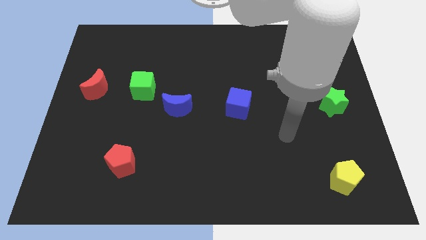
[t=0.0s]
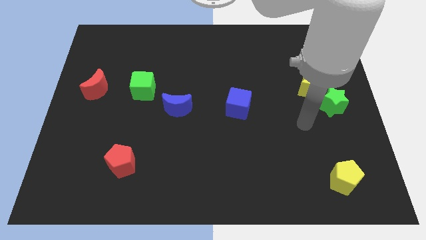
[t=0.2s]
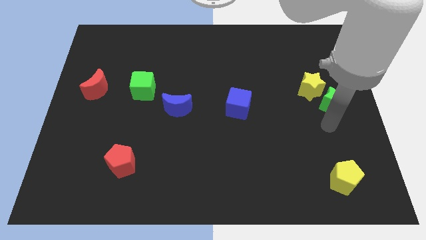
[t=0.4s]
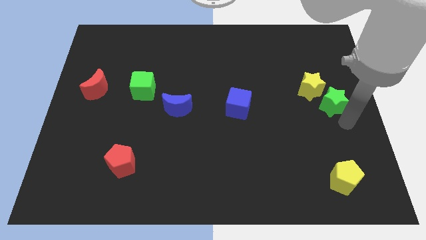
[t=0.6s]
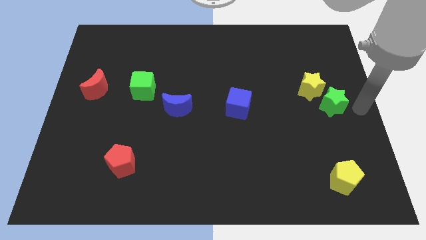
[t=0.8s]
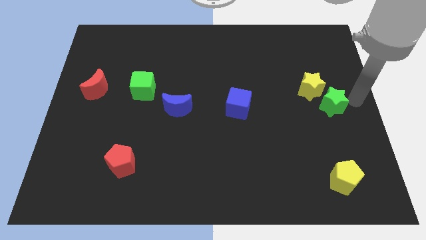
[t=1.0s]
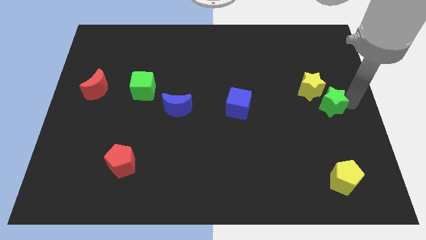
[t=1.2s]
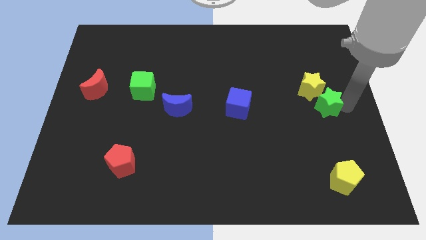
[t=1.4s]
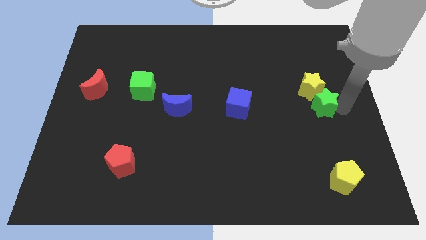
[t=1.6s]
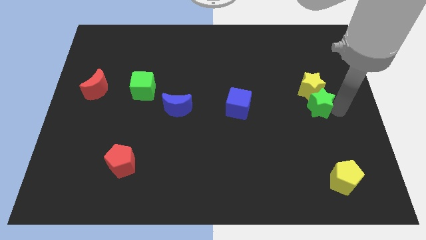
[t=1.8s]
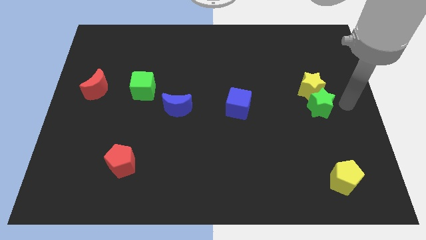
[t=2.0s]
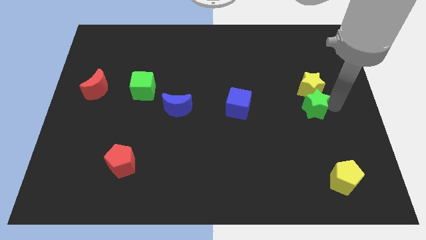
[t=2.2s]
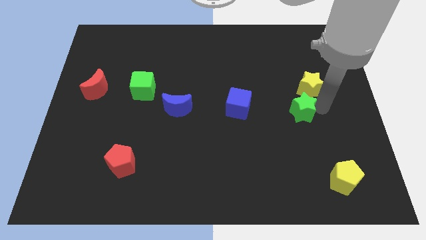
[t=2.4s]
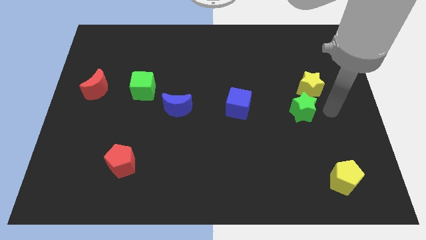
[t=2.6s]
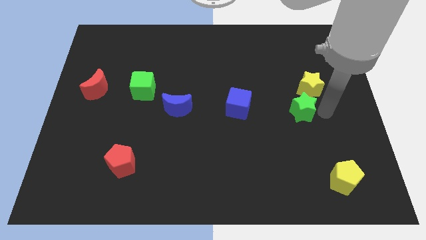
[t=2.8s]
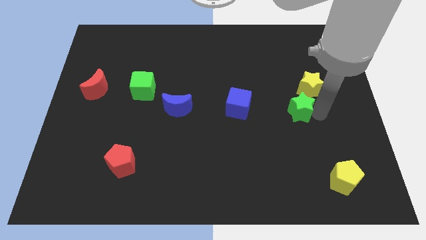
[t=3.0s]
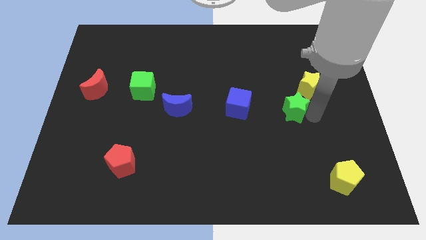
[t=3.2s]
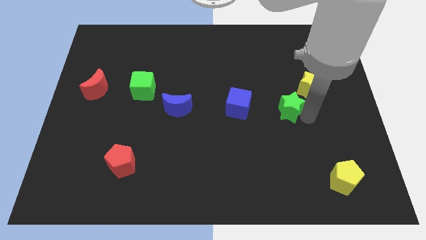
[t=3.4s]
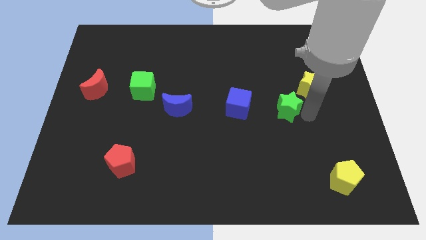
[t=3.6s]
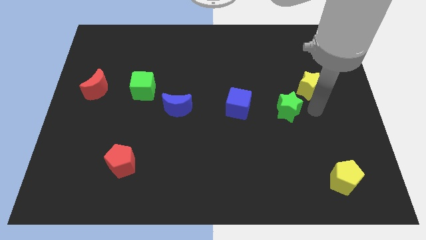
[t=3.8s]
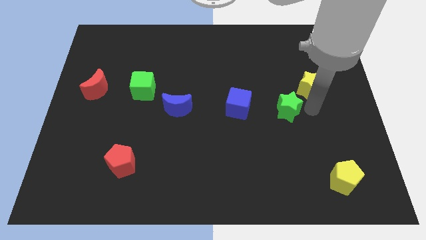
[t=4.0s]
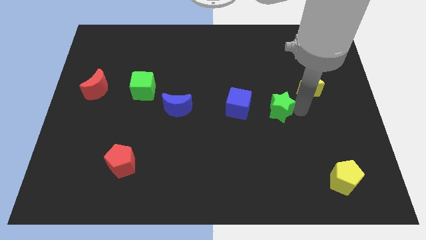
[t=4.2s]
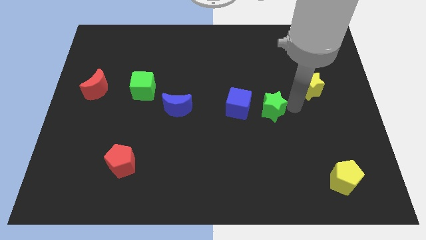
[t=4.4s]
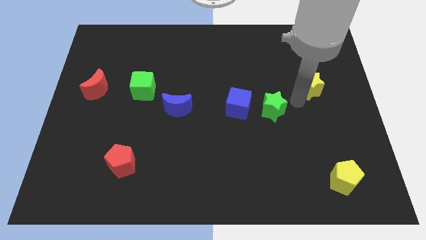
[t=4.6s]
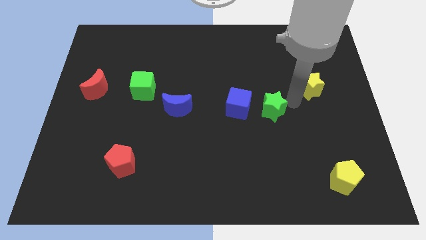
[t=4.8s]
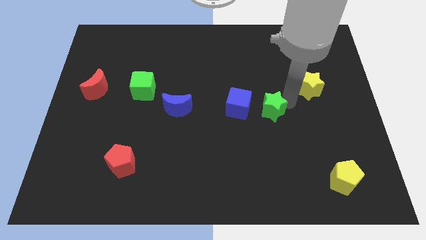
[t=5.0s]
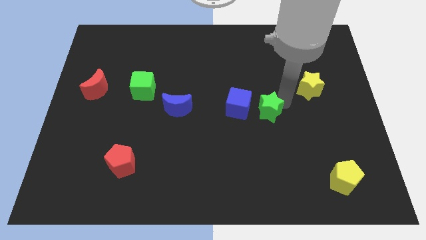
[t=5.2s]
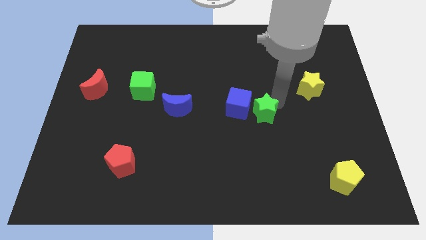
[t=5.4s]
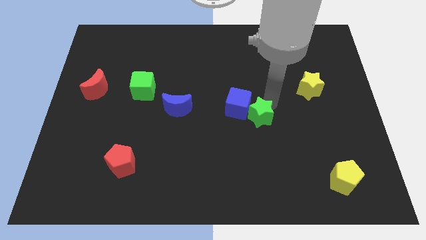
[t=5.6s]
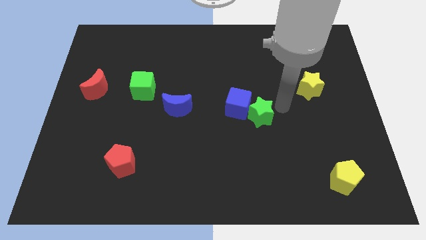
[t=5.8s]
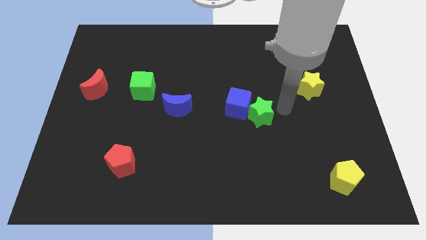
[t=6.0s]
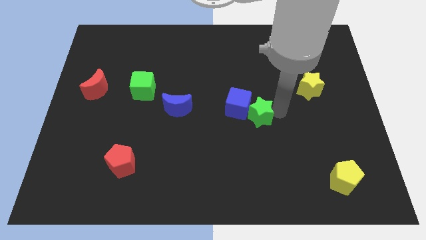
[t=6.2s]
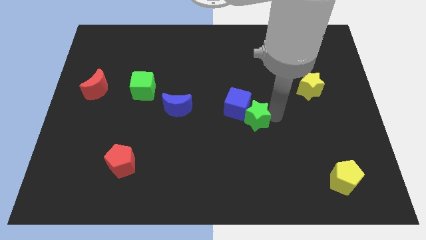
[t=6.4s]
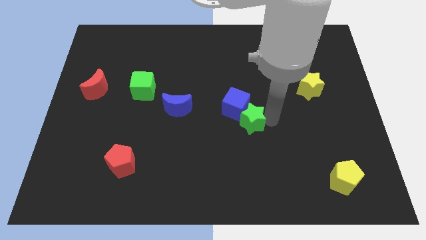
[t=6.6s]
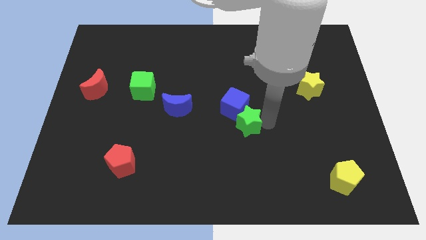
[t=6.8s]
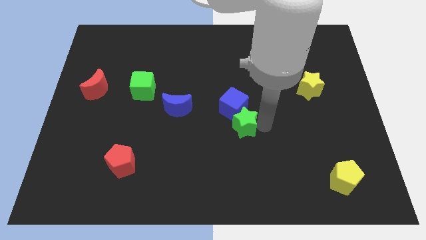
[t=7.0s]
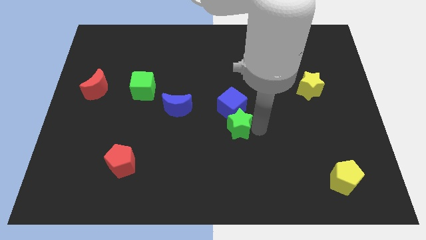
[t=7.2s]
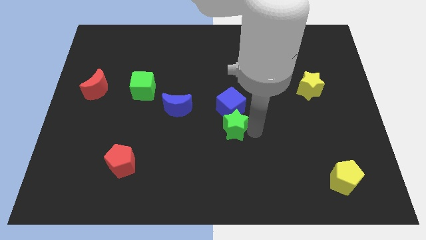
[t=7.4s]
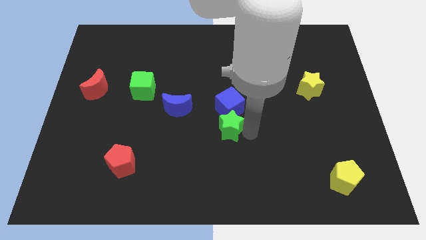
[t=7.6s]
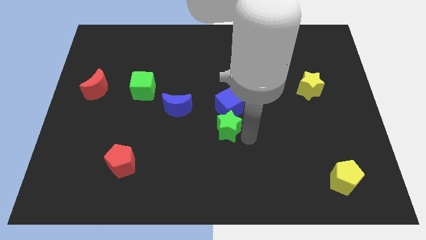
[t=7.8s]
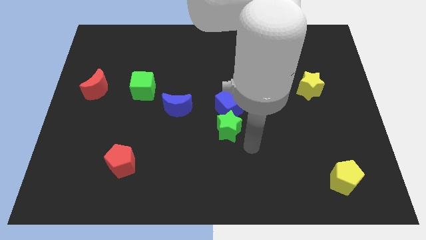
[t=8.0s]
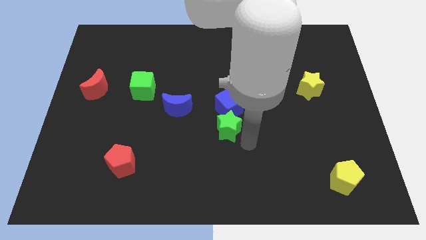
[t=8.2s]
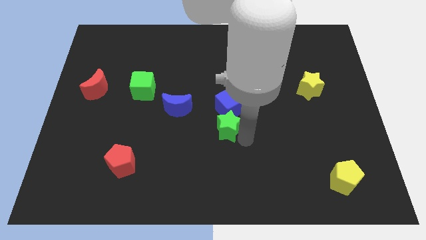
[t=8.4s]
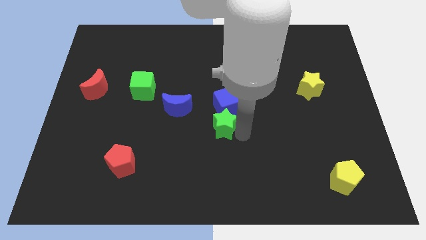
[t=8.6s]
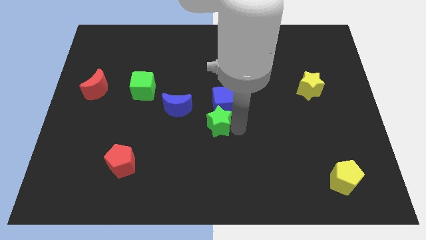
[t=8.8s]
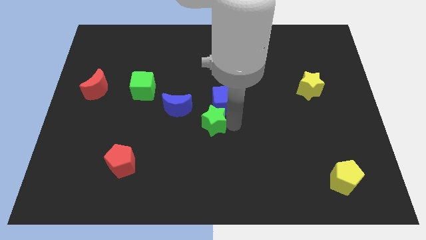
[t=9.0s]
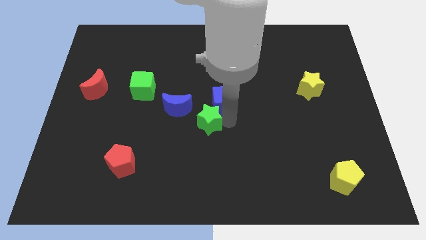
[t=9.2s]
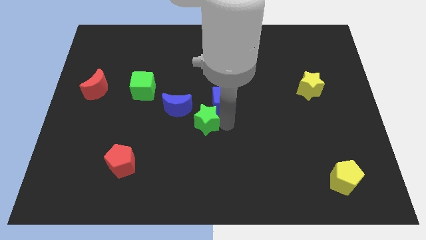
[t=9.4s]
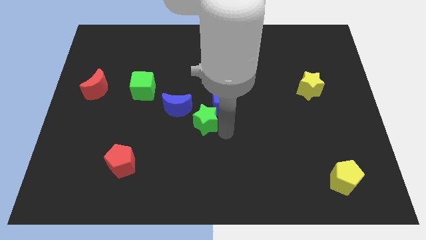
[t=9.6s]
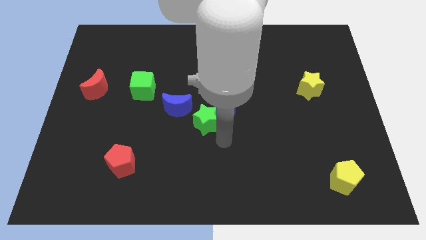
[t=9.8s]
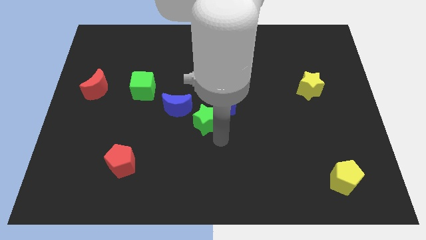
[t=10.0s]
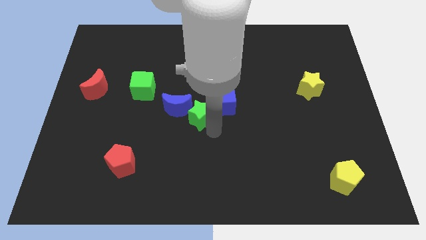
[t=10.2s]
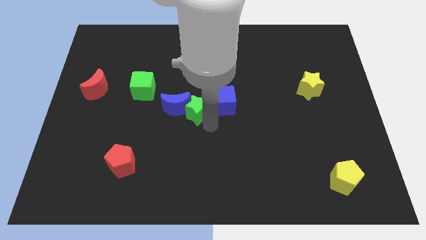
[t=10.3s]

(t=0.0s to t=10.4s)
push the green star towards the blue moon

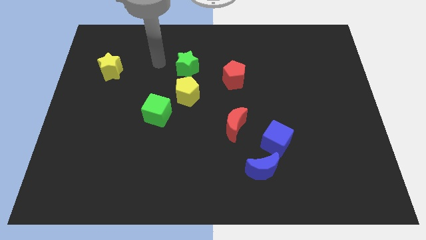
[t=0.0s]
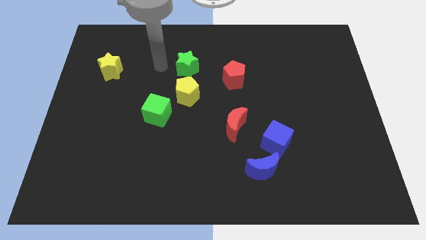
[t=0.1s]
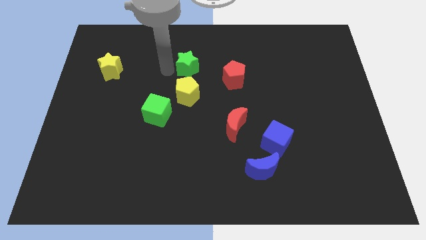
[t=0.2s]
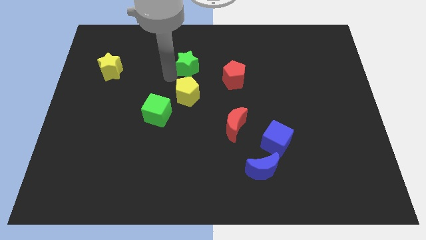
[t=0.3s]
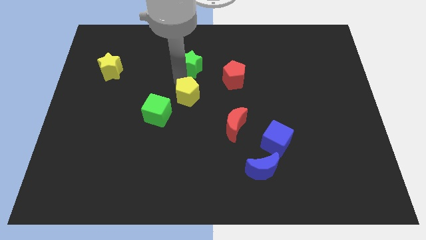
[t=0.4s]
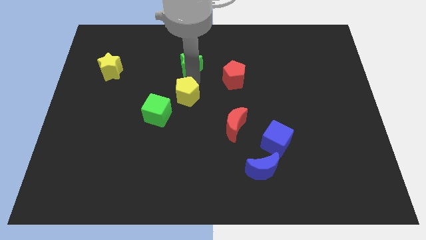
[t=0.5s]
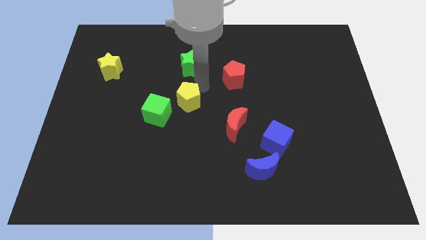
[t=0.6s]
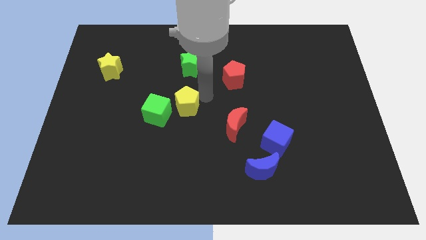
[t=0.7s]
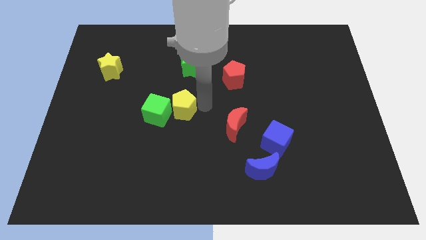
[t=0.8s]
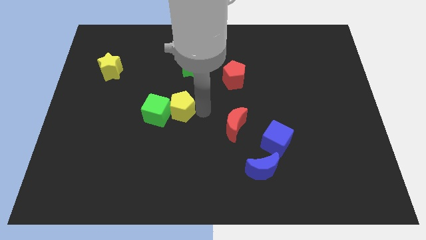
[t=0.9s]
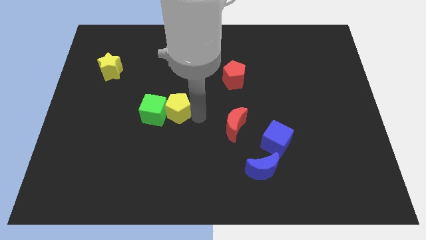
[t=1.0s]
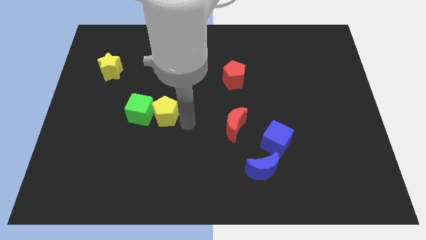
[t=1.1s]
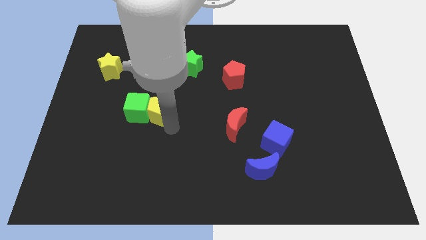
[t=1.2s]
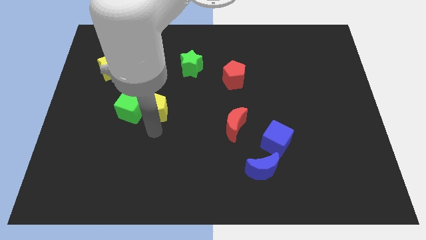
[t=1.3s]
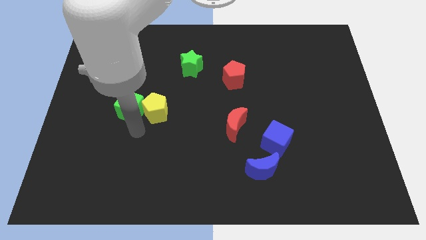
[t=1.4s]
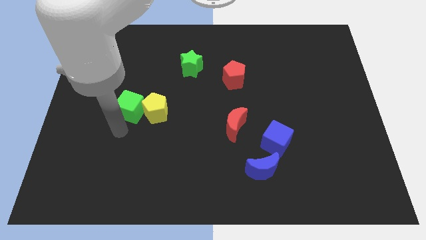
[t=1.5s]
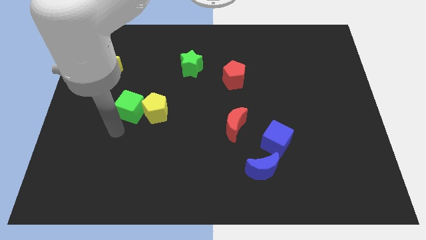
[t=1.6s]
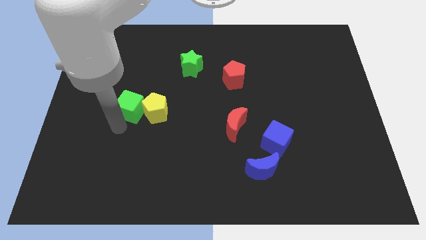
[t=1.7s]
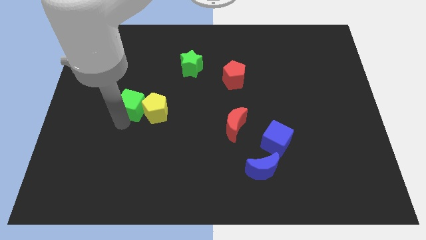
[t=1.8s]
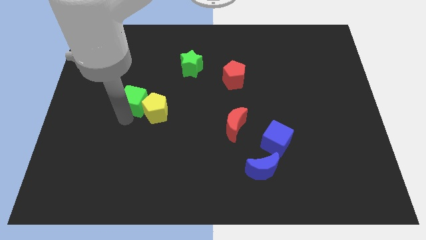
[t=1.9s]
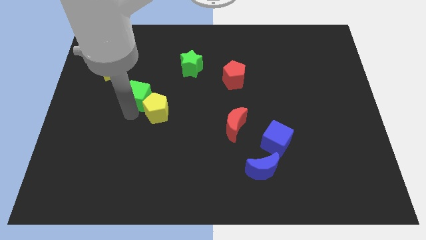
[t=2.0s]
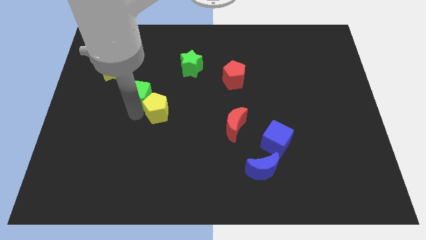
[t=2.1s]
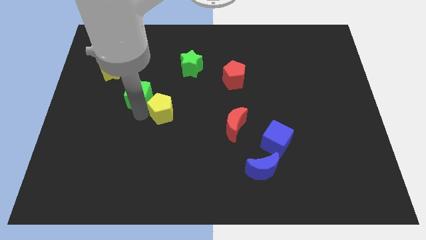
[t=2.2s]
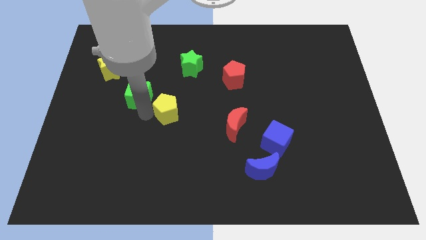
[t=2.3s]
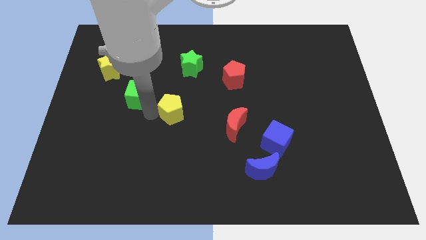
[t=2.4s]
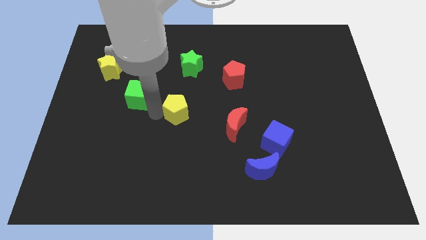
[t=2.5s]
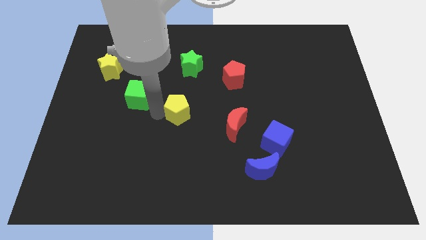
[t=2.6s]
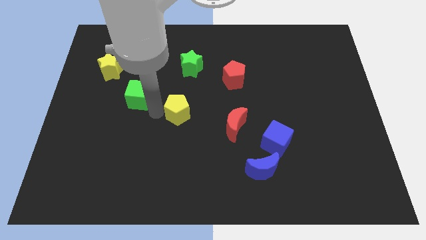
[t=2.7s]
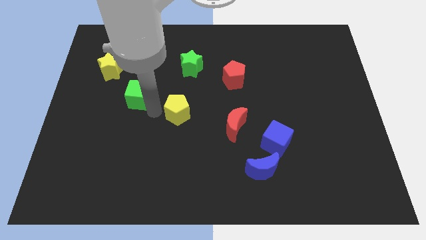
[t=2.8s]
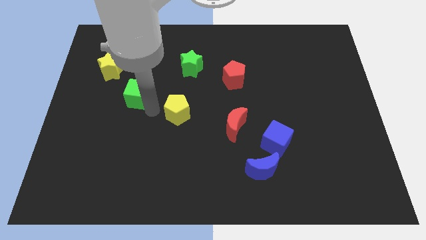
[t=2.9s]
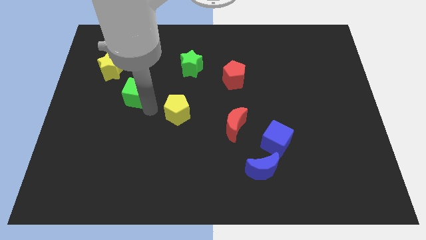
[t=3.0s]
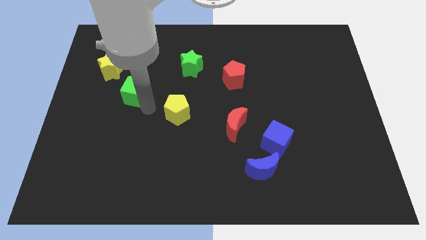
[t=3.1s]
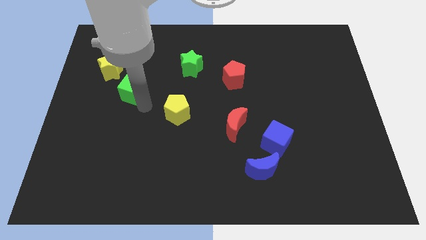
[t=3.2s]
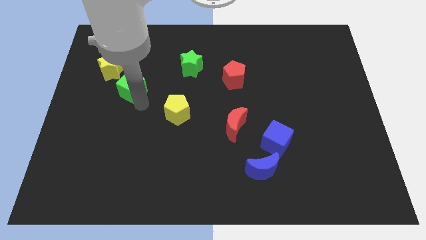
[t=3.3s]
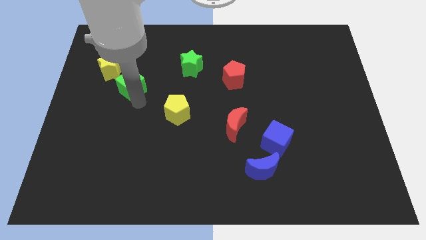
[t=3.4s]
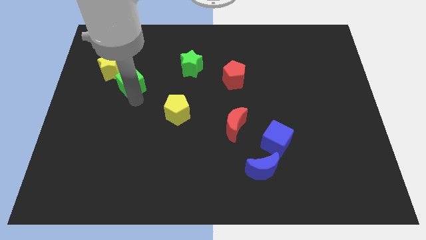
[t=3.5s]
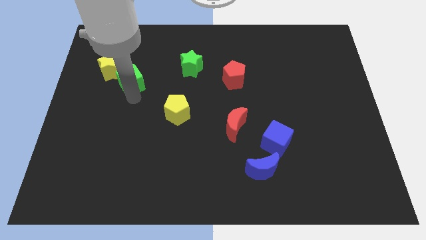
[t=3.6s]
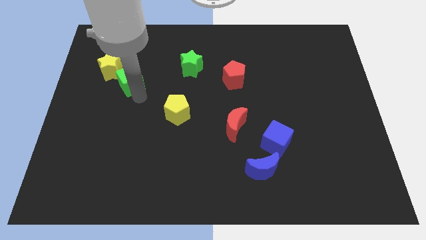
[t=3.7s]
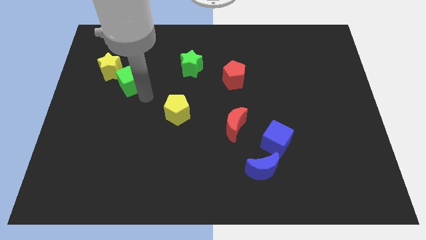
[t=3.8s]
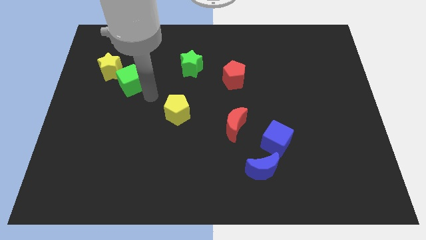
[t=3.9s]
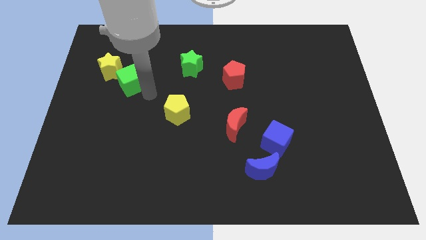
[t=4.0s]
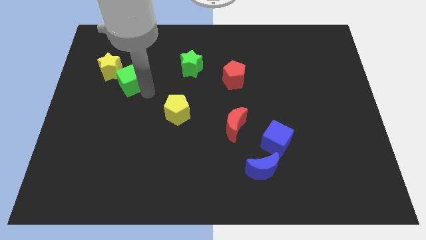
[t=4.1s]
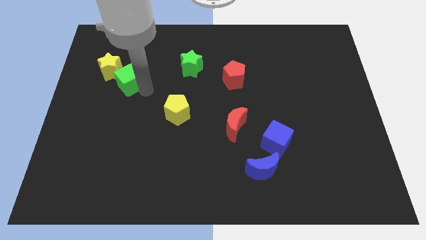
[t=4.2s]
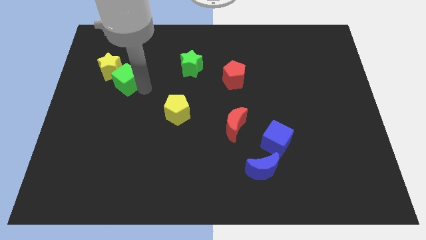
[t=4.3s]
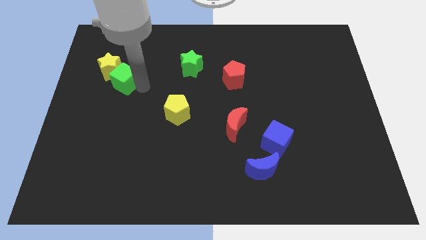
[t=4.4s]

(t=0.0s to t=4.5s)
put the green cube to the yellow star
